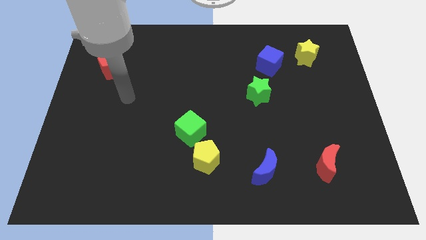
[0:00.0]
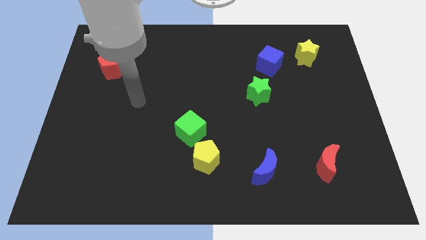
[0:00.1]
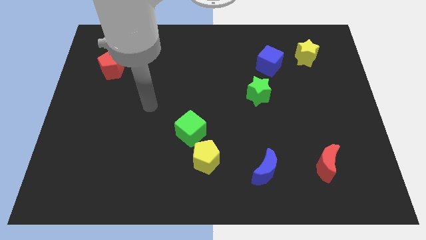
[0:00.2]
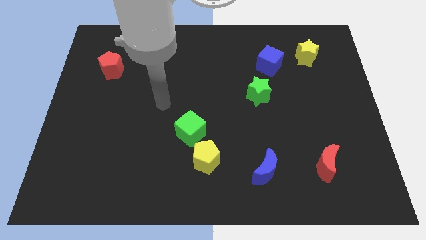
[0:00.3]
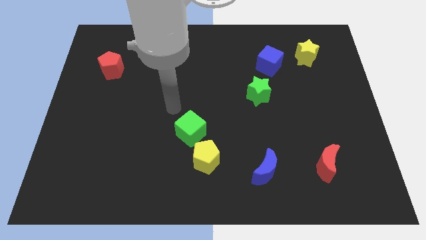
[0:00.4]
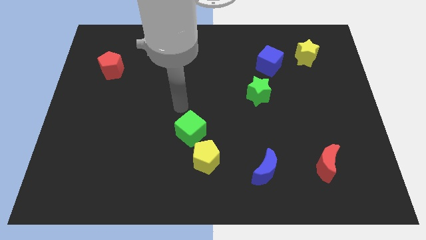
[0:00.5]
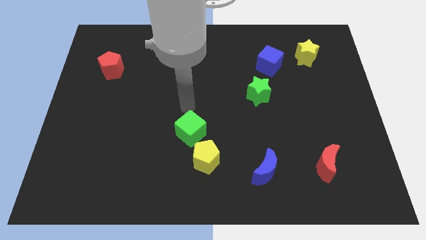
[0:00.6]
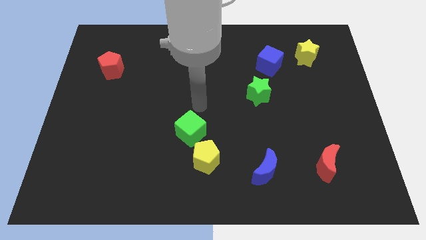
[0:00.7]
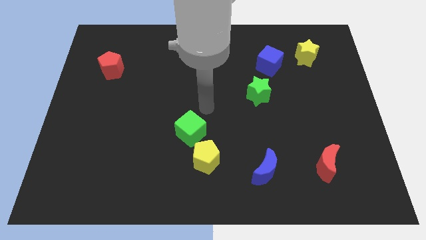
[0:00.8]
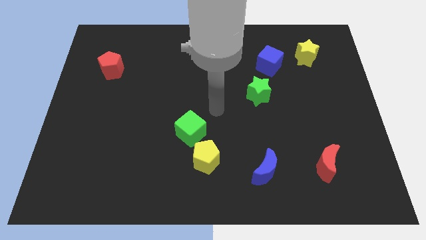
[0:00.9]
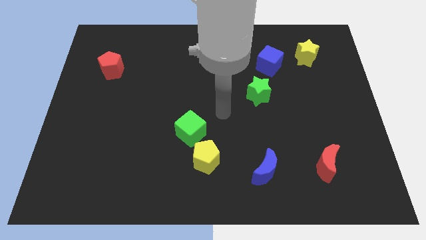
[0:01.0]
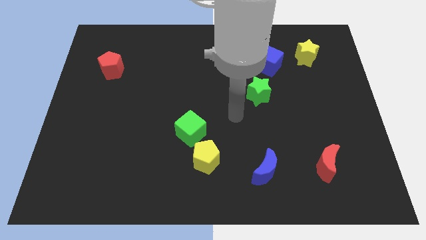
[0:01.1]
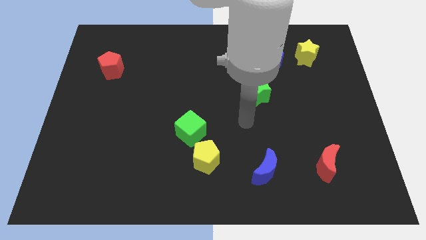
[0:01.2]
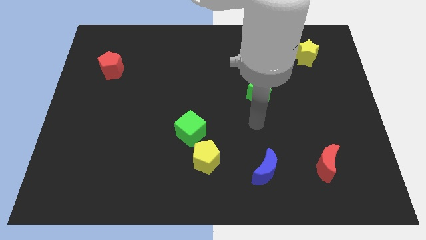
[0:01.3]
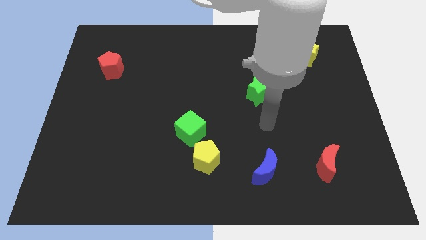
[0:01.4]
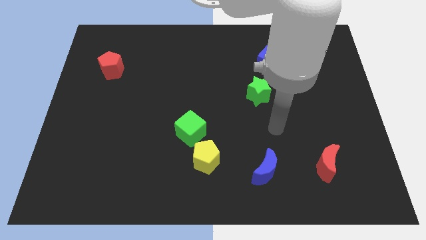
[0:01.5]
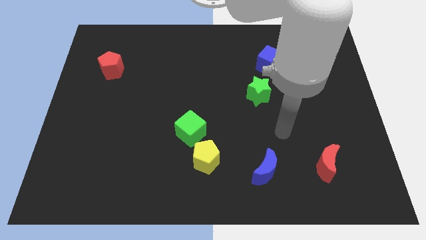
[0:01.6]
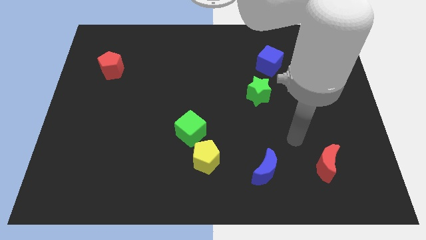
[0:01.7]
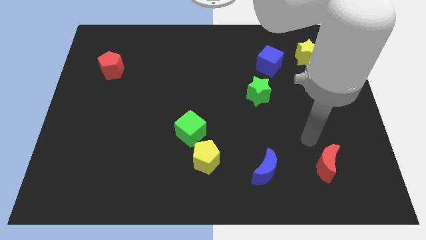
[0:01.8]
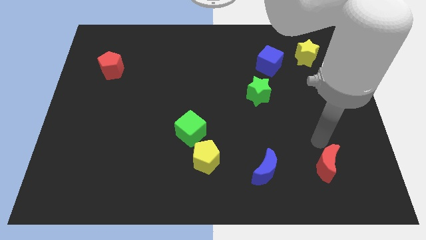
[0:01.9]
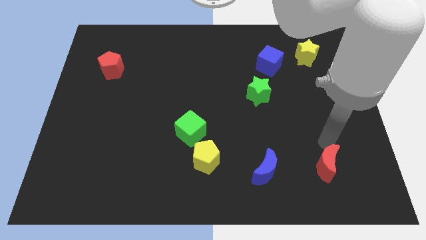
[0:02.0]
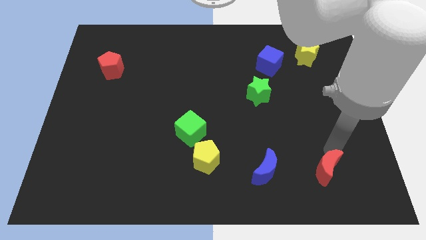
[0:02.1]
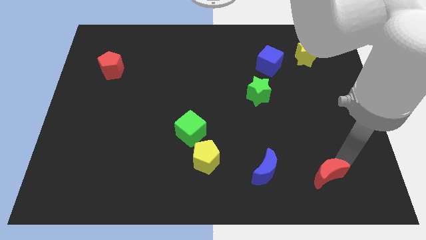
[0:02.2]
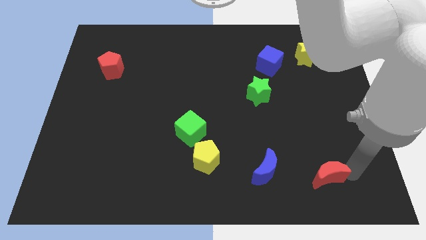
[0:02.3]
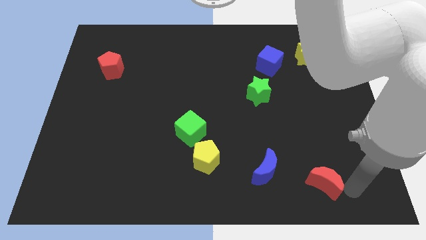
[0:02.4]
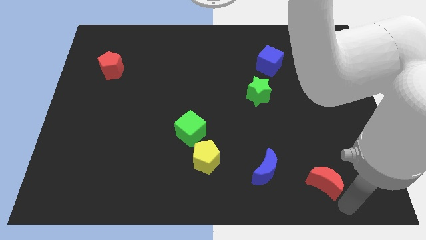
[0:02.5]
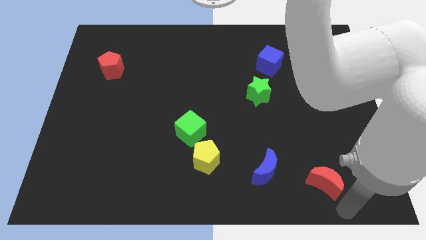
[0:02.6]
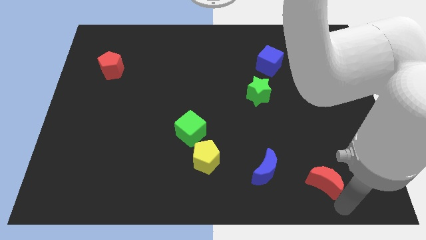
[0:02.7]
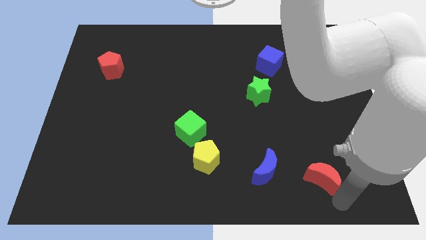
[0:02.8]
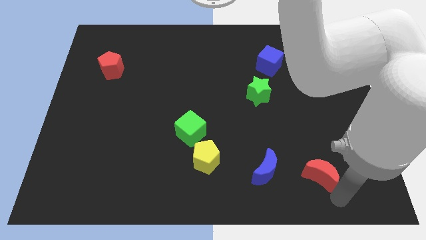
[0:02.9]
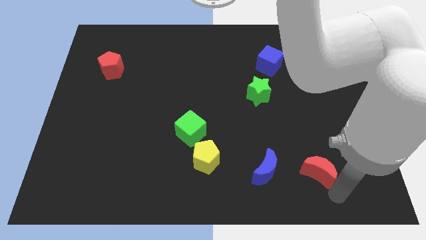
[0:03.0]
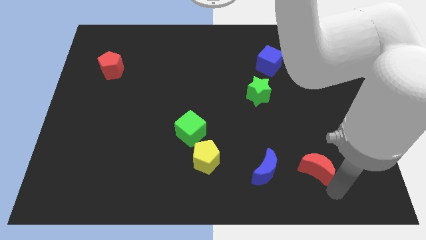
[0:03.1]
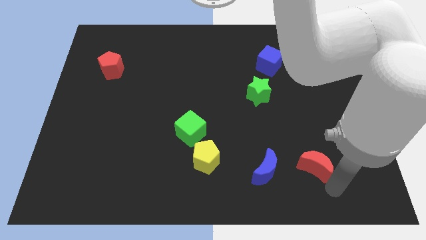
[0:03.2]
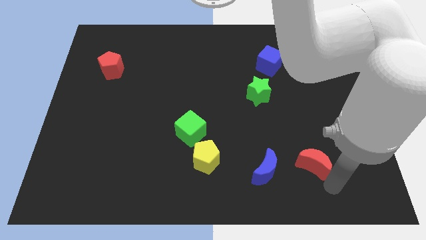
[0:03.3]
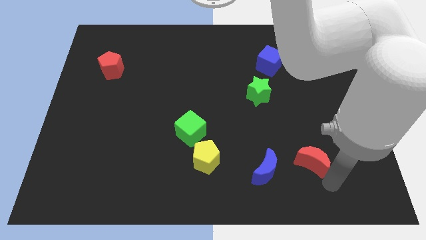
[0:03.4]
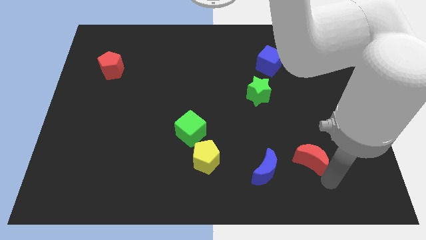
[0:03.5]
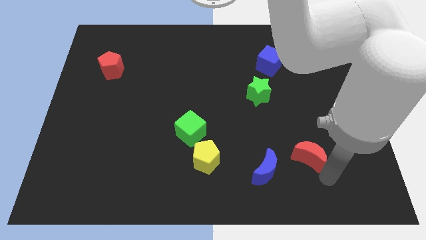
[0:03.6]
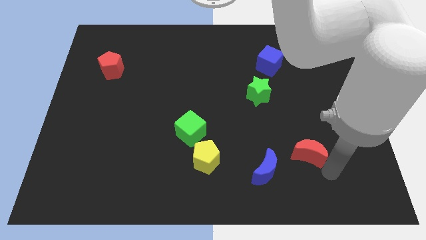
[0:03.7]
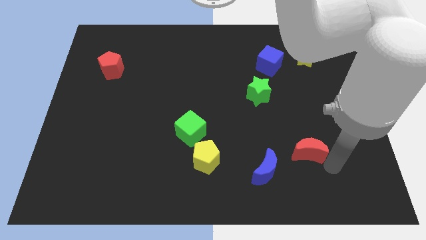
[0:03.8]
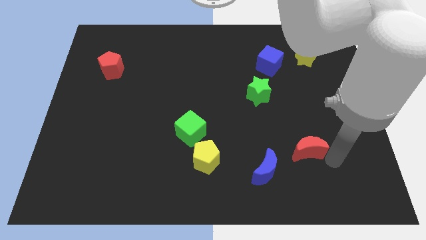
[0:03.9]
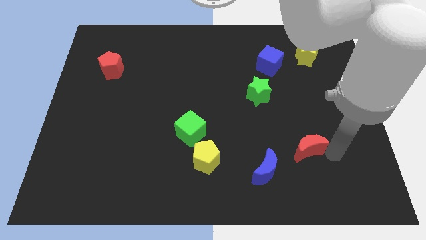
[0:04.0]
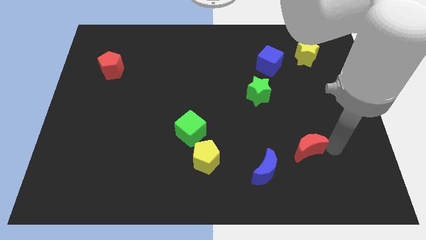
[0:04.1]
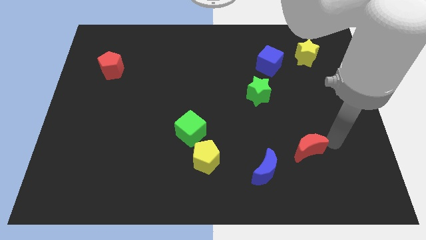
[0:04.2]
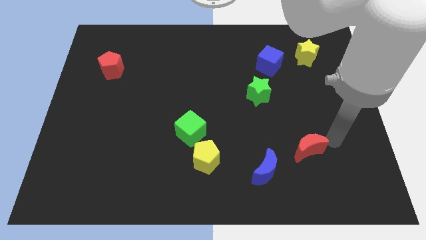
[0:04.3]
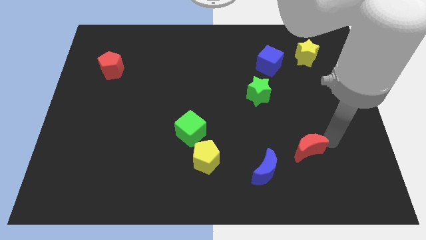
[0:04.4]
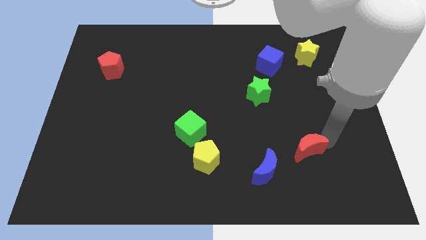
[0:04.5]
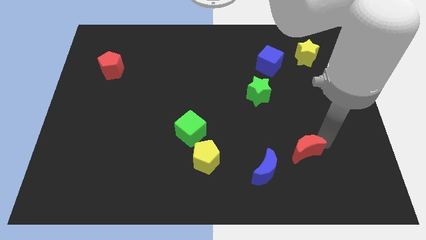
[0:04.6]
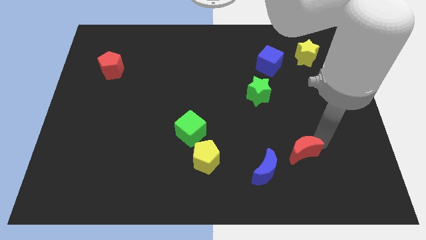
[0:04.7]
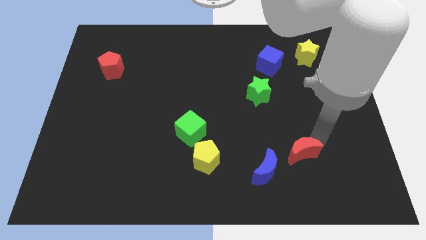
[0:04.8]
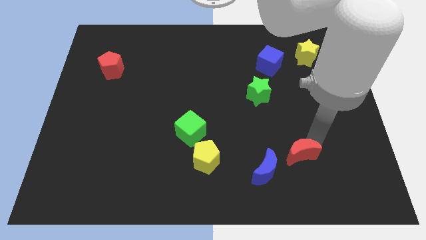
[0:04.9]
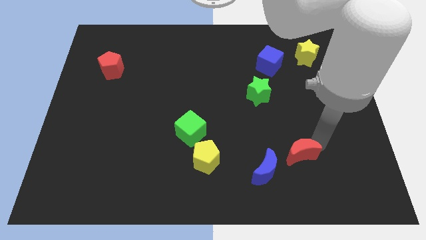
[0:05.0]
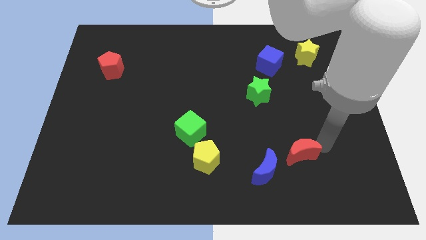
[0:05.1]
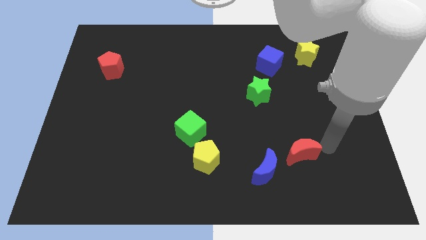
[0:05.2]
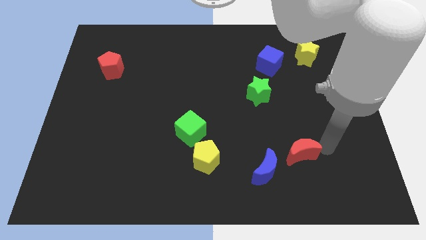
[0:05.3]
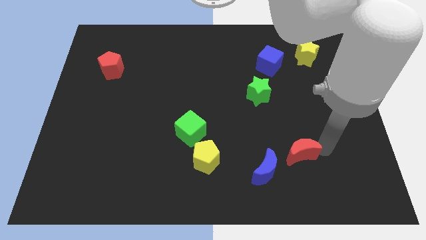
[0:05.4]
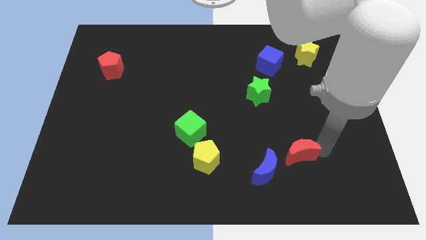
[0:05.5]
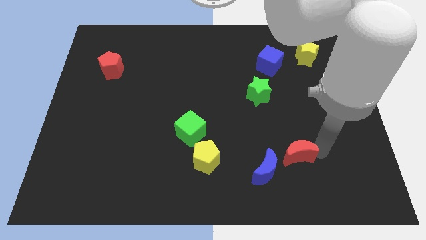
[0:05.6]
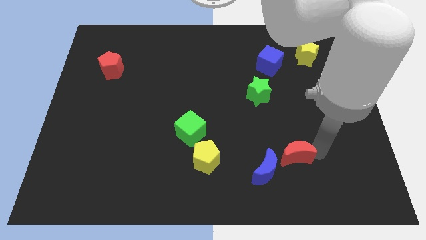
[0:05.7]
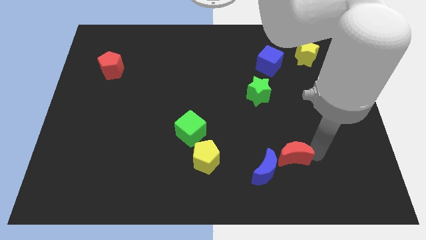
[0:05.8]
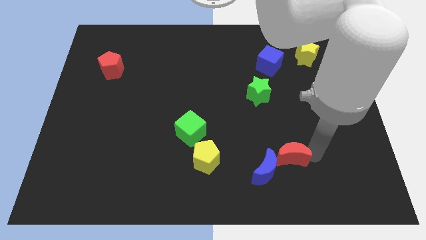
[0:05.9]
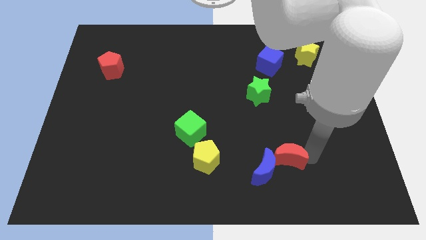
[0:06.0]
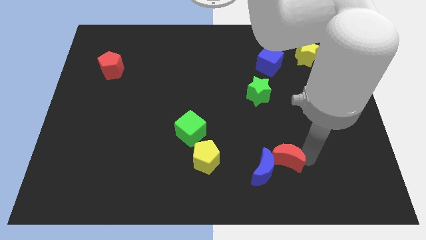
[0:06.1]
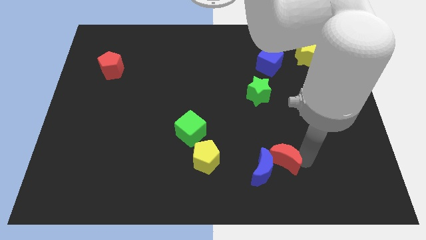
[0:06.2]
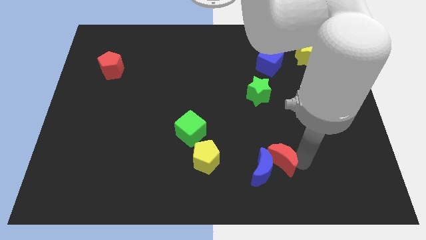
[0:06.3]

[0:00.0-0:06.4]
move the red moon to the right of the yellow pentagon
